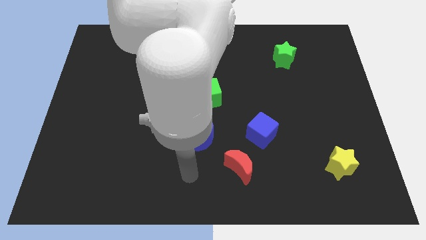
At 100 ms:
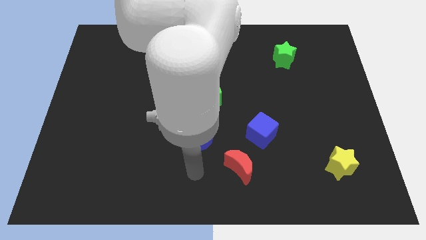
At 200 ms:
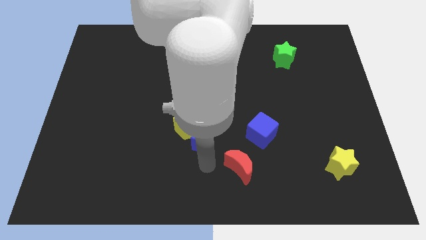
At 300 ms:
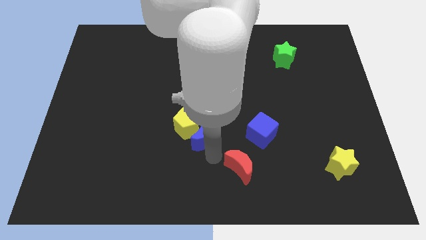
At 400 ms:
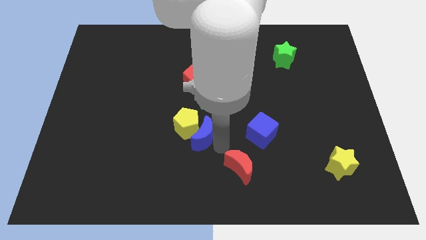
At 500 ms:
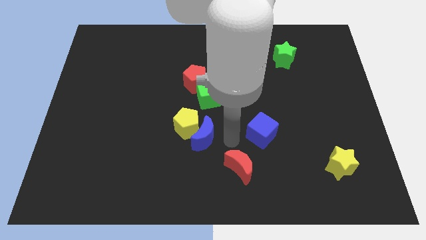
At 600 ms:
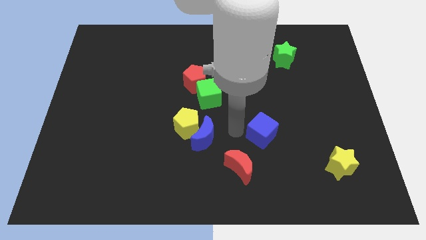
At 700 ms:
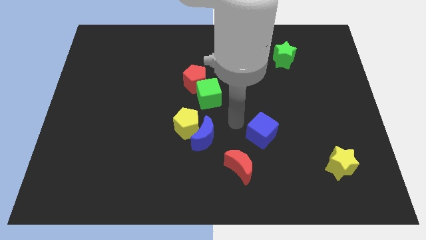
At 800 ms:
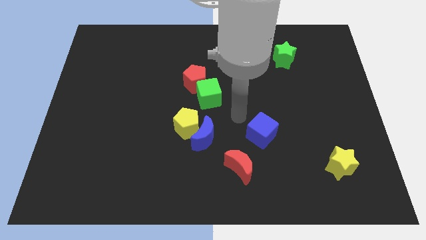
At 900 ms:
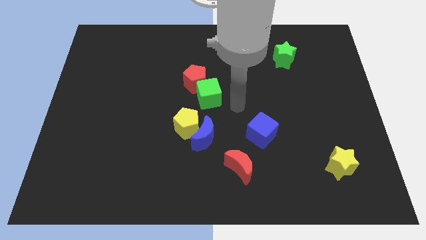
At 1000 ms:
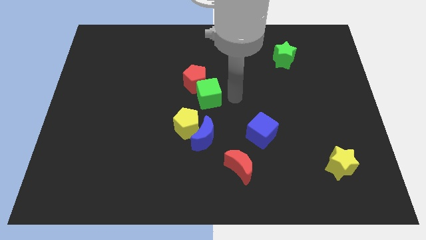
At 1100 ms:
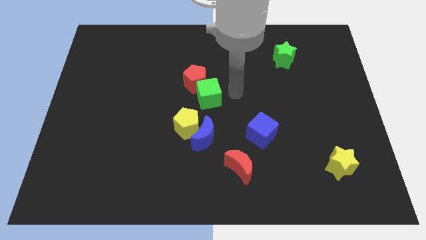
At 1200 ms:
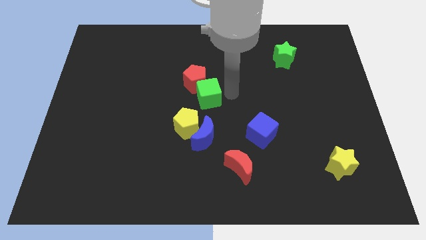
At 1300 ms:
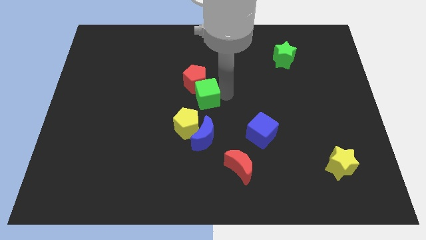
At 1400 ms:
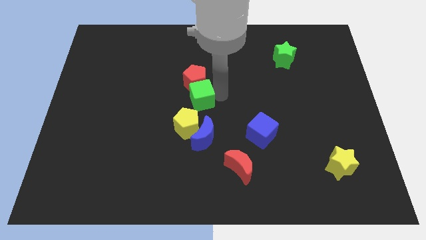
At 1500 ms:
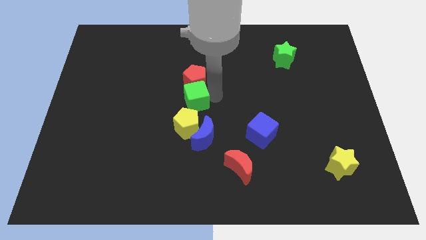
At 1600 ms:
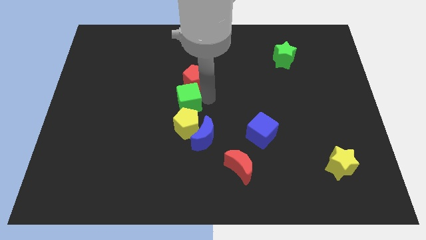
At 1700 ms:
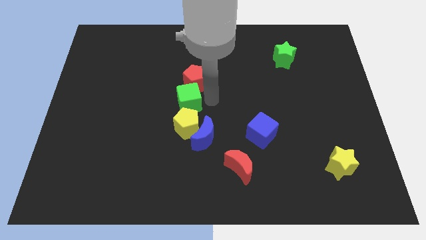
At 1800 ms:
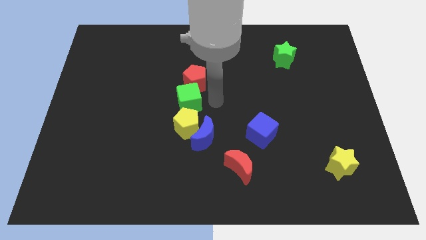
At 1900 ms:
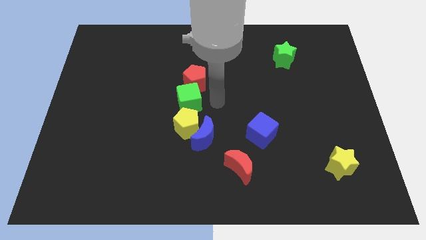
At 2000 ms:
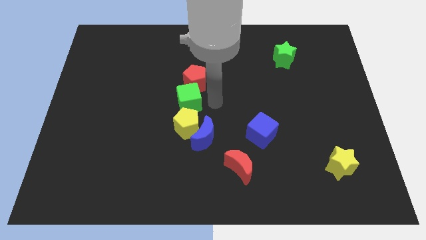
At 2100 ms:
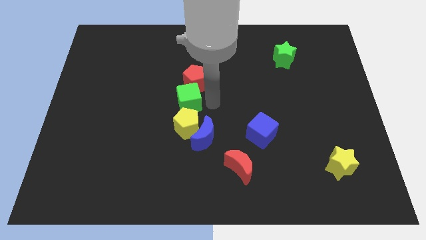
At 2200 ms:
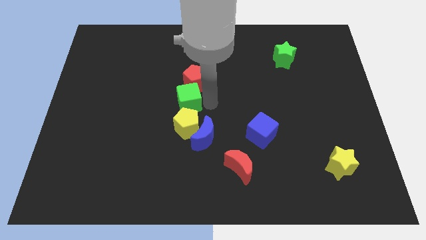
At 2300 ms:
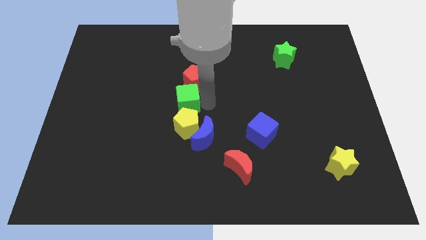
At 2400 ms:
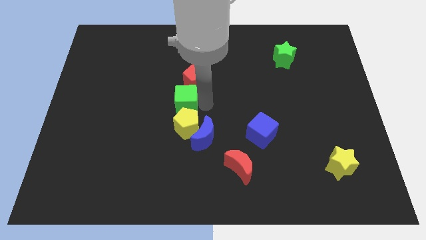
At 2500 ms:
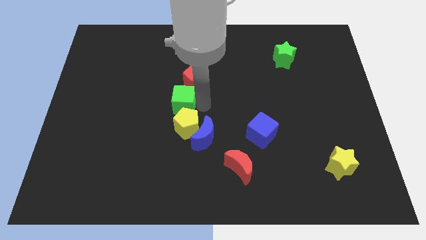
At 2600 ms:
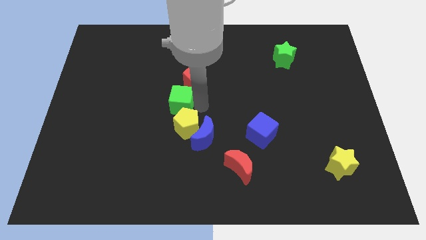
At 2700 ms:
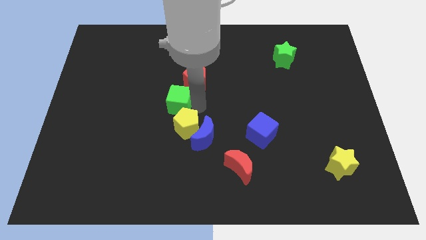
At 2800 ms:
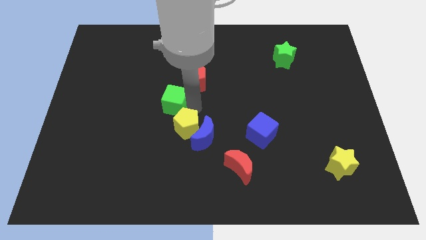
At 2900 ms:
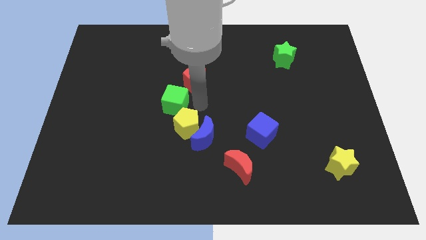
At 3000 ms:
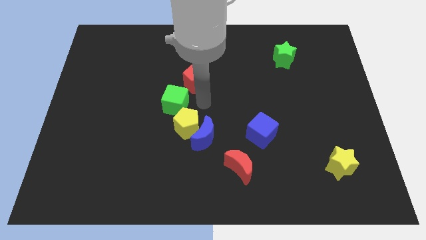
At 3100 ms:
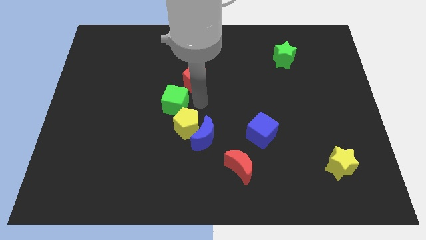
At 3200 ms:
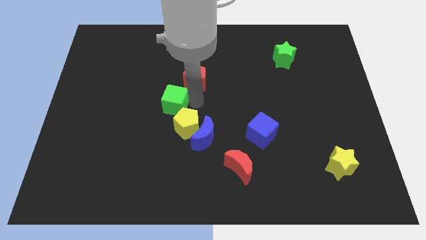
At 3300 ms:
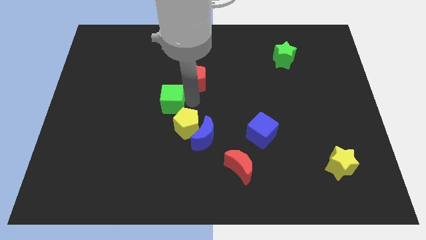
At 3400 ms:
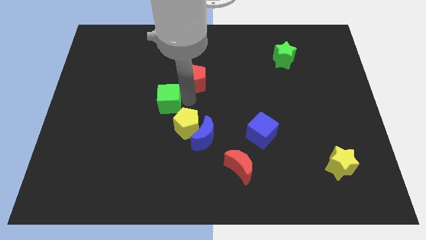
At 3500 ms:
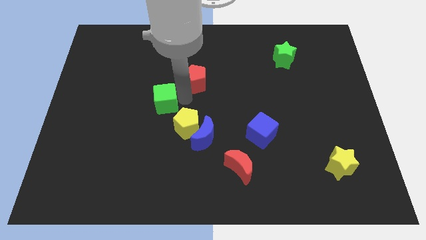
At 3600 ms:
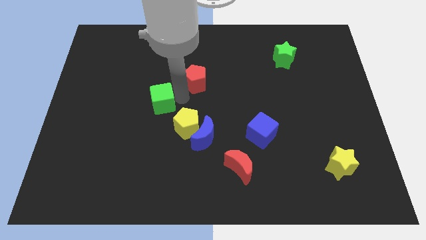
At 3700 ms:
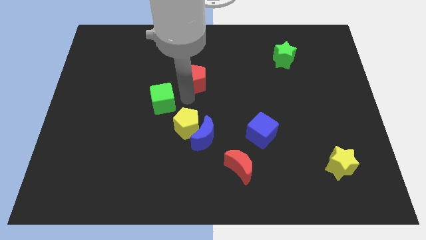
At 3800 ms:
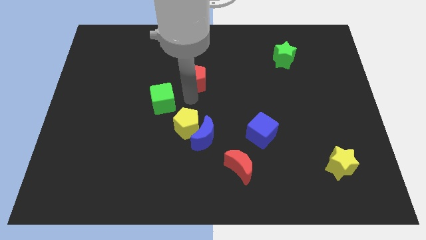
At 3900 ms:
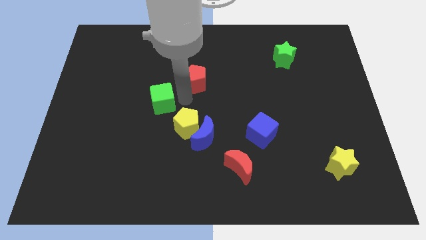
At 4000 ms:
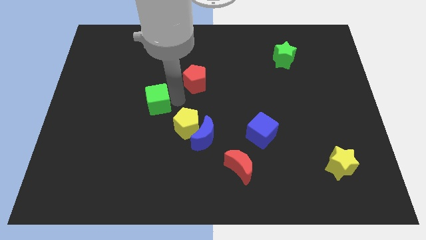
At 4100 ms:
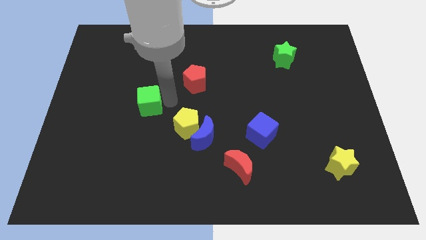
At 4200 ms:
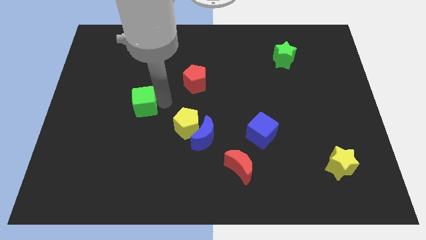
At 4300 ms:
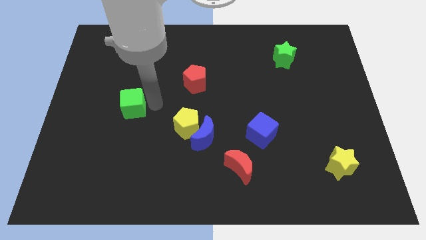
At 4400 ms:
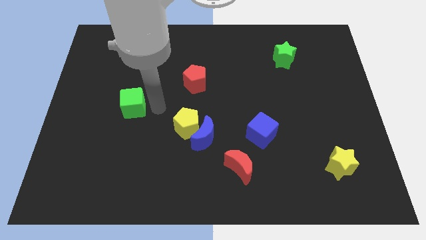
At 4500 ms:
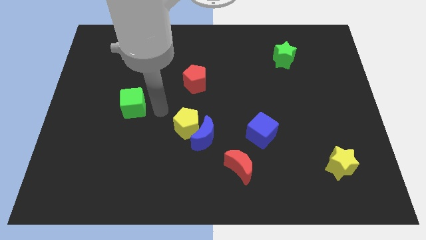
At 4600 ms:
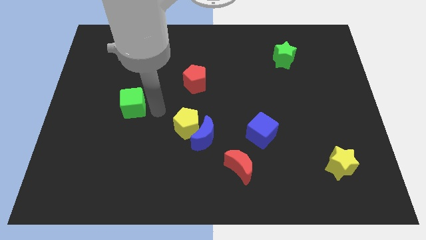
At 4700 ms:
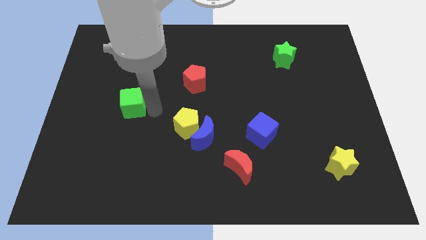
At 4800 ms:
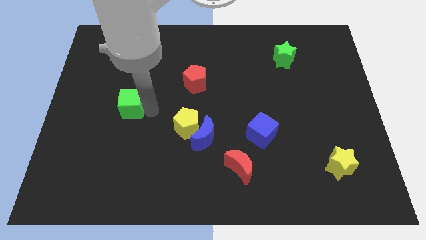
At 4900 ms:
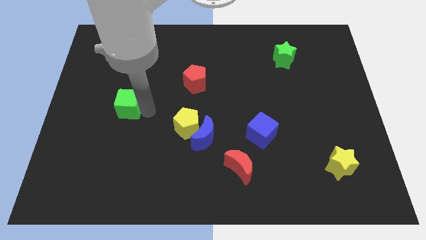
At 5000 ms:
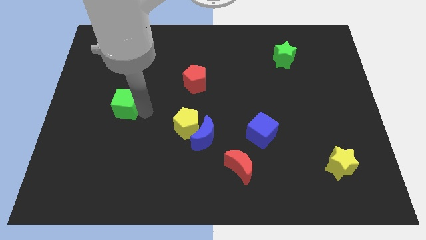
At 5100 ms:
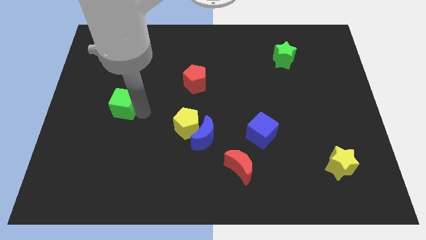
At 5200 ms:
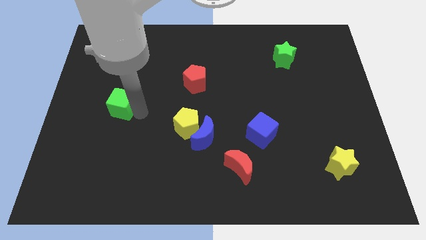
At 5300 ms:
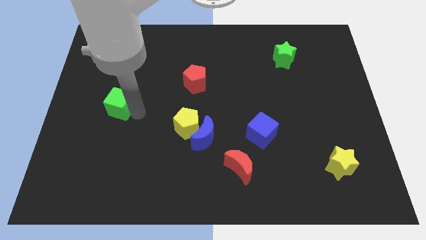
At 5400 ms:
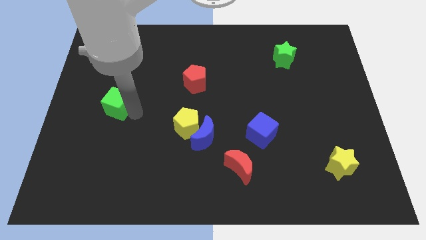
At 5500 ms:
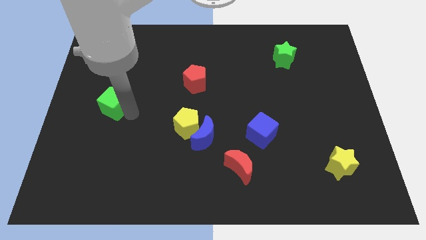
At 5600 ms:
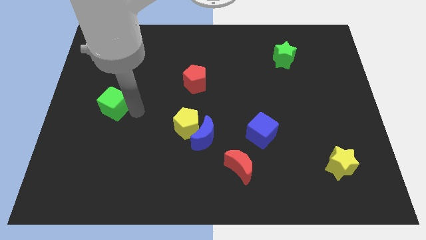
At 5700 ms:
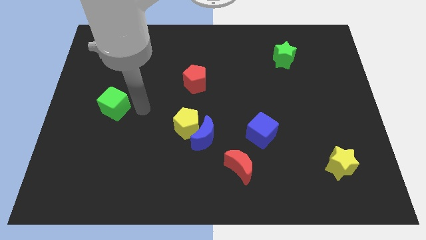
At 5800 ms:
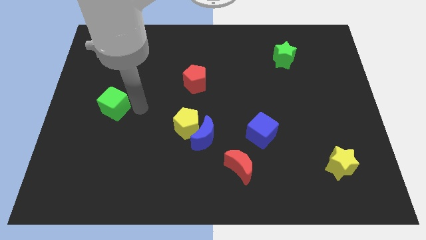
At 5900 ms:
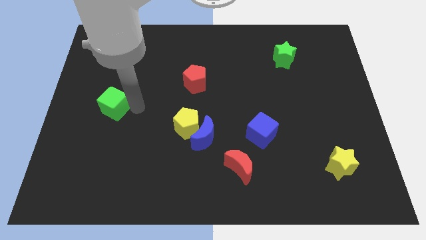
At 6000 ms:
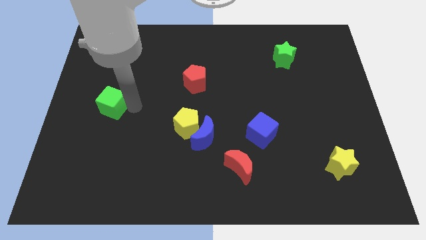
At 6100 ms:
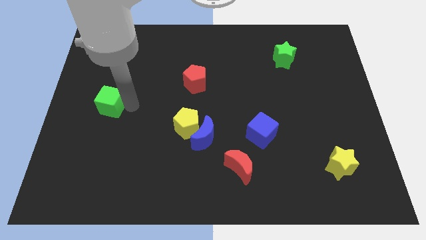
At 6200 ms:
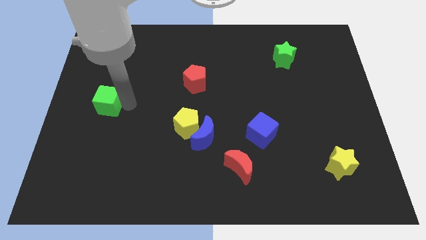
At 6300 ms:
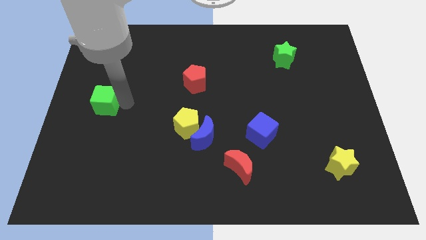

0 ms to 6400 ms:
put the green cube to the left side of the board
